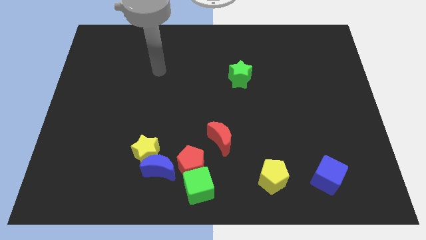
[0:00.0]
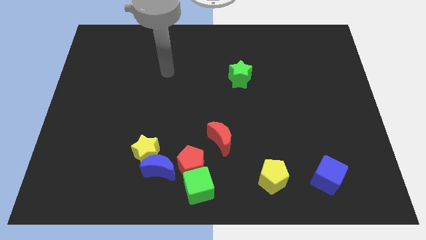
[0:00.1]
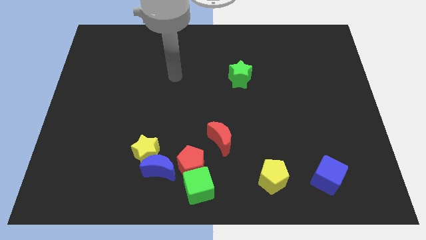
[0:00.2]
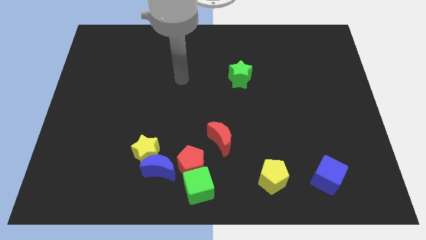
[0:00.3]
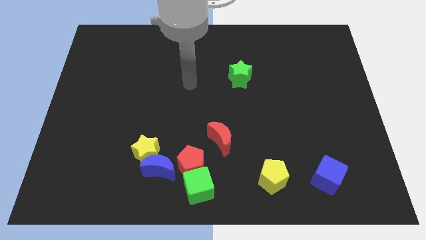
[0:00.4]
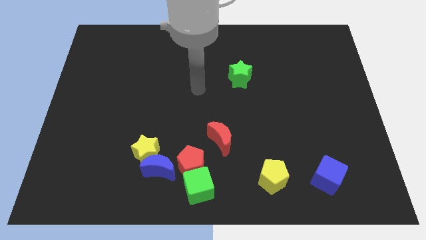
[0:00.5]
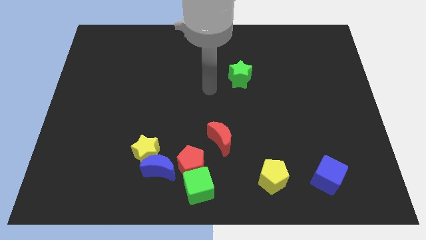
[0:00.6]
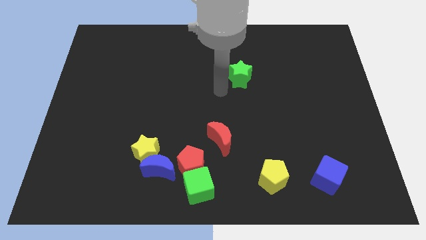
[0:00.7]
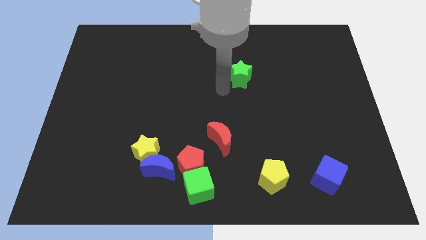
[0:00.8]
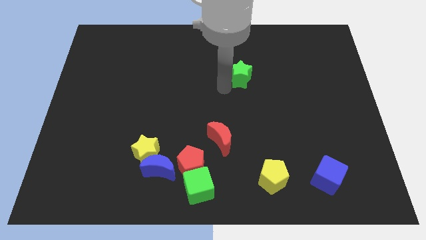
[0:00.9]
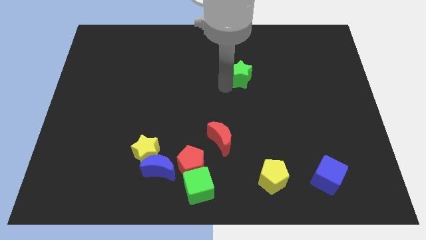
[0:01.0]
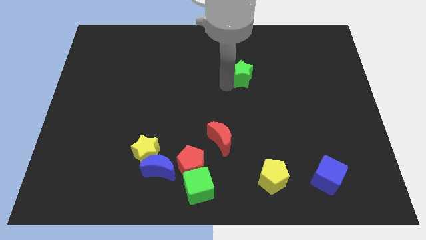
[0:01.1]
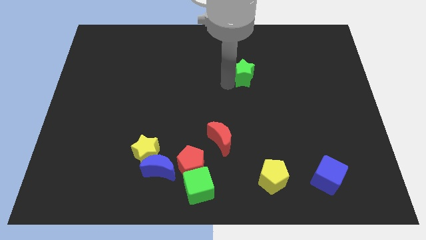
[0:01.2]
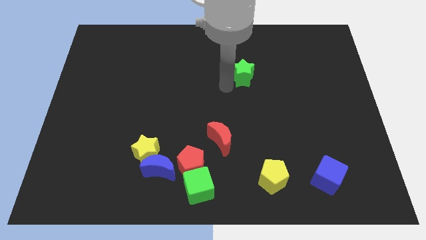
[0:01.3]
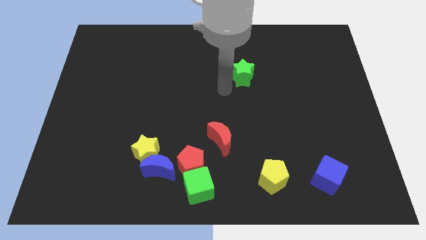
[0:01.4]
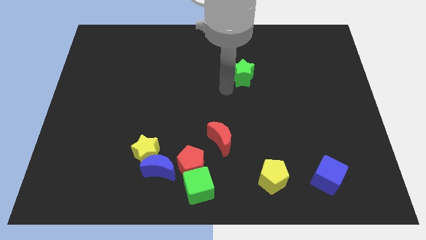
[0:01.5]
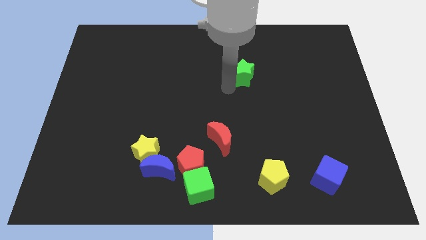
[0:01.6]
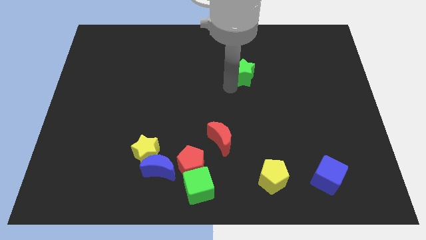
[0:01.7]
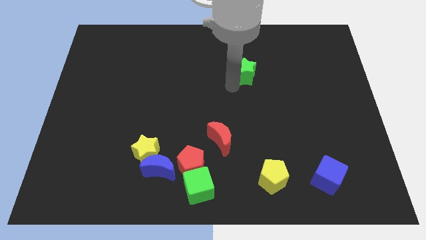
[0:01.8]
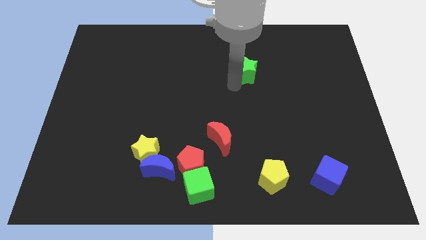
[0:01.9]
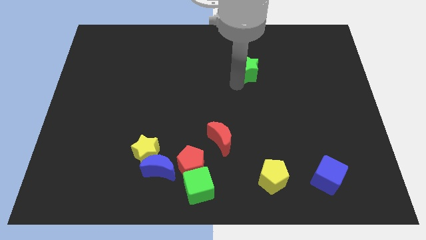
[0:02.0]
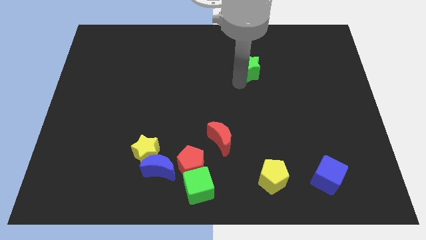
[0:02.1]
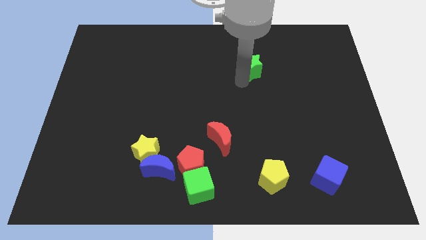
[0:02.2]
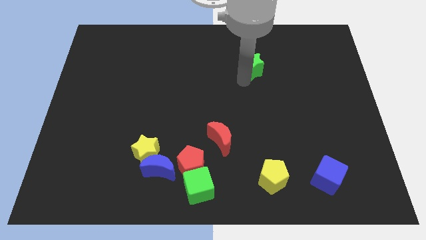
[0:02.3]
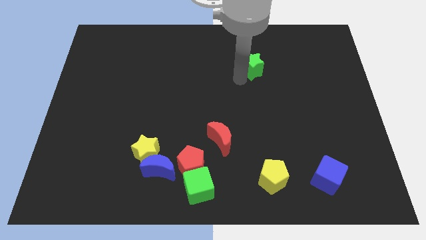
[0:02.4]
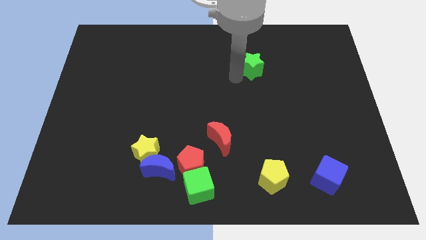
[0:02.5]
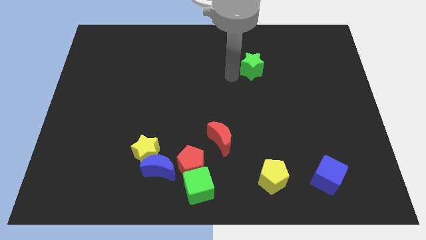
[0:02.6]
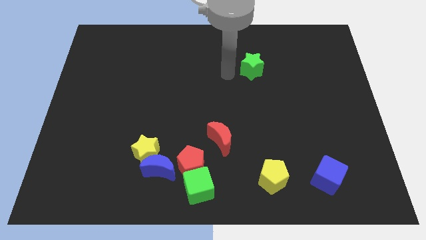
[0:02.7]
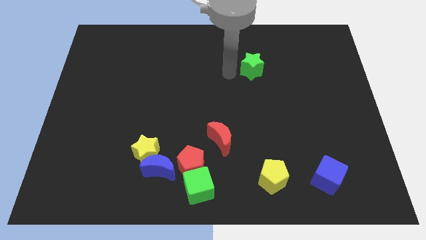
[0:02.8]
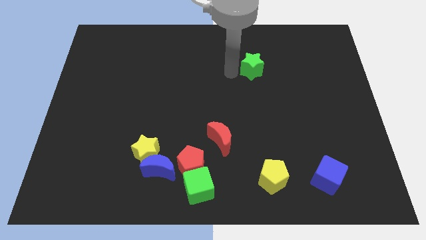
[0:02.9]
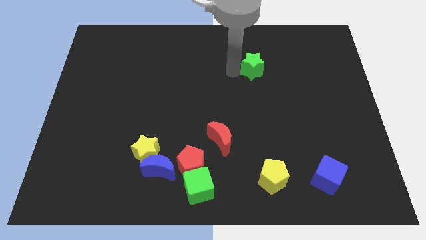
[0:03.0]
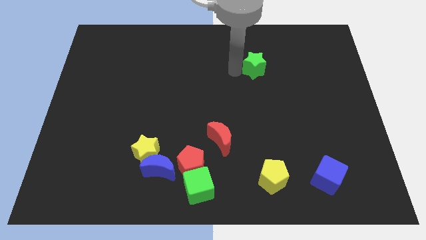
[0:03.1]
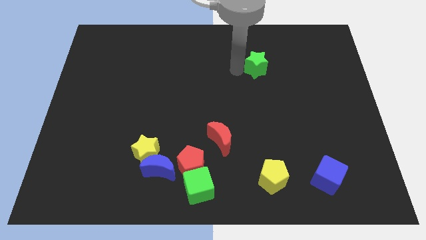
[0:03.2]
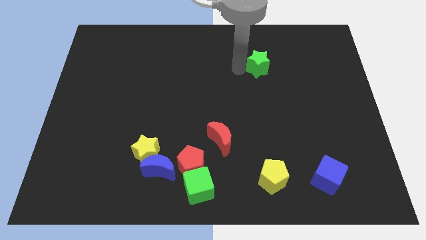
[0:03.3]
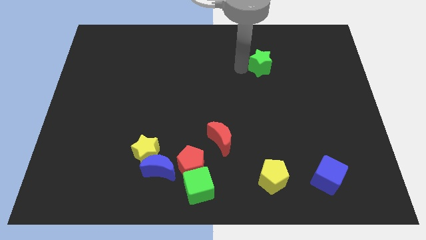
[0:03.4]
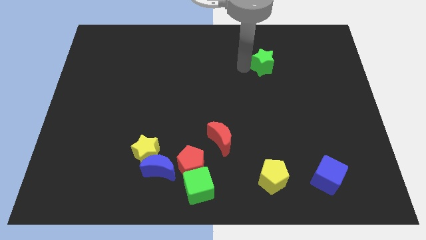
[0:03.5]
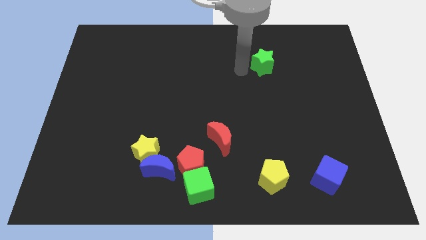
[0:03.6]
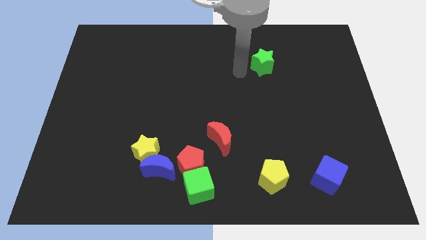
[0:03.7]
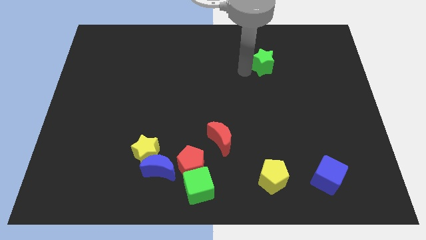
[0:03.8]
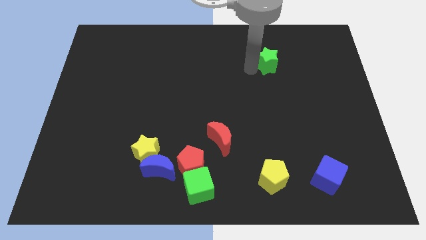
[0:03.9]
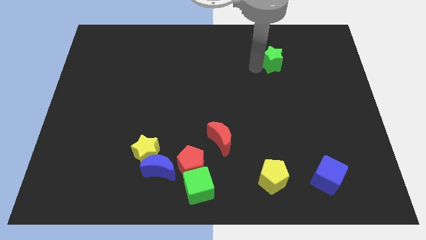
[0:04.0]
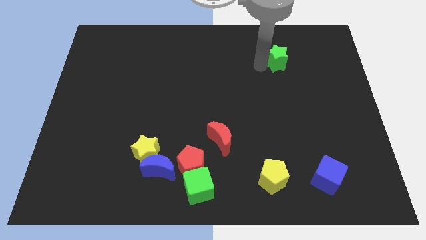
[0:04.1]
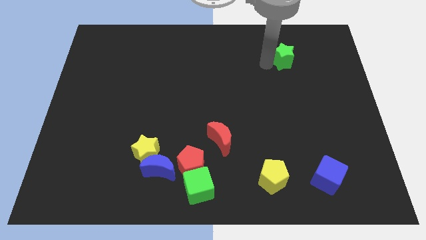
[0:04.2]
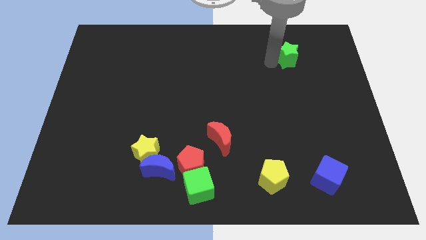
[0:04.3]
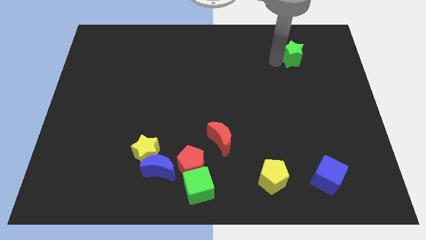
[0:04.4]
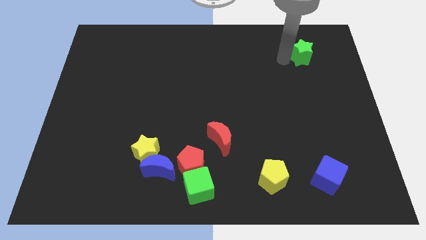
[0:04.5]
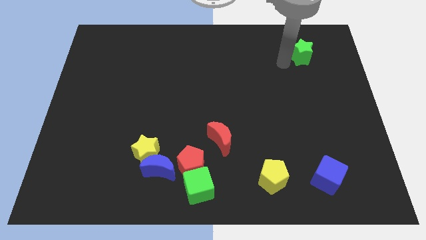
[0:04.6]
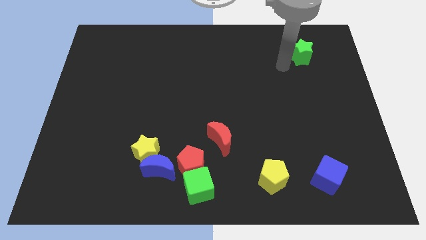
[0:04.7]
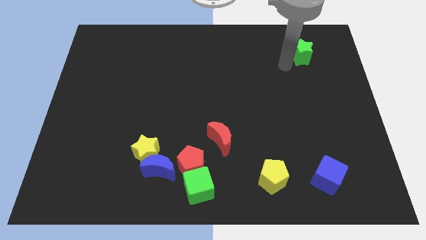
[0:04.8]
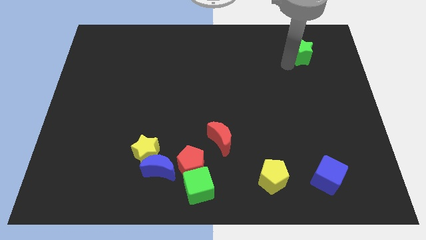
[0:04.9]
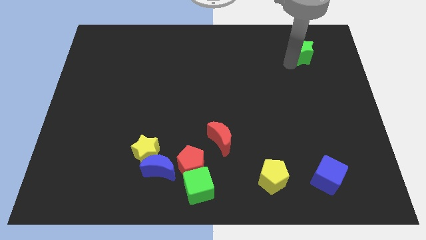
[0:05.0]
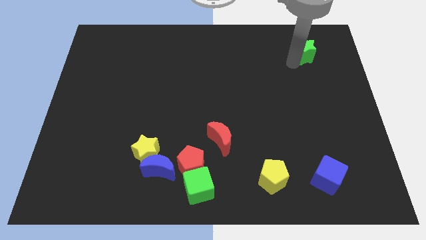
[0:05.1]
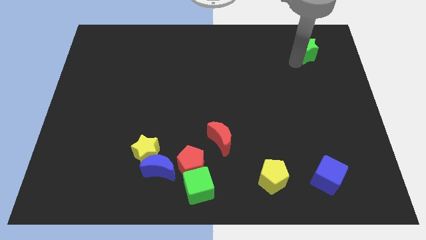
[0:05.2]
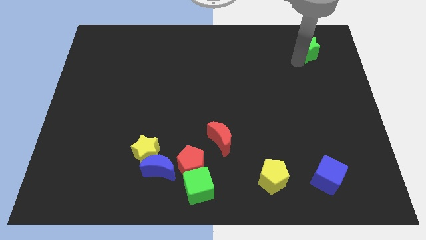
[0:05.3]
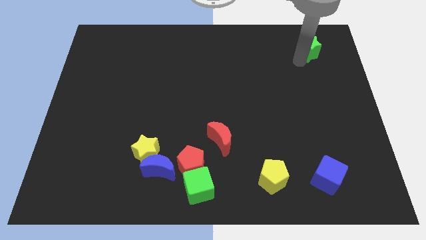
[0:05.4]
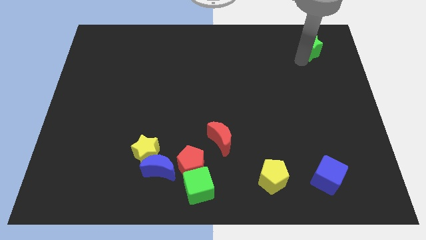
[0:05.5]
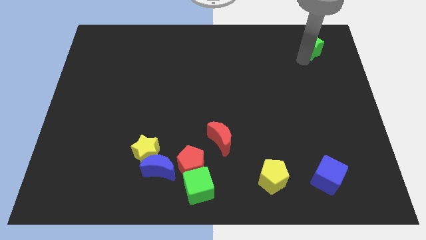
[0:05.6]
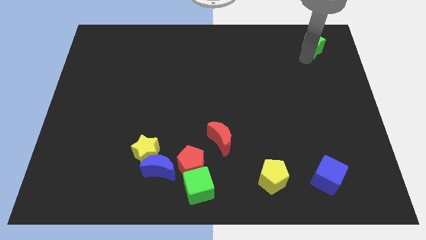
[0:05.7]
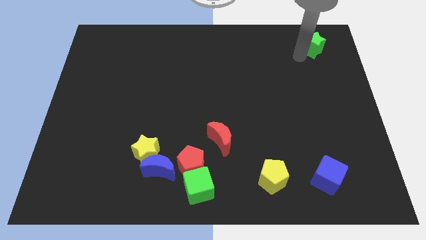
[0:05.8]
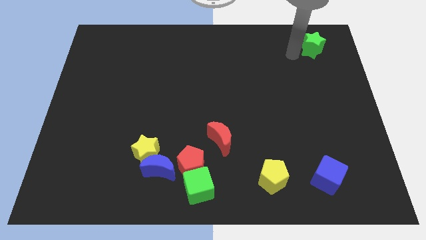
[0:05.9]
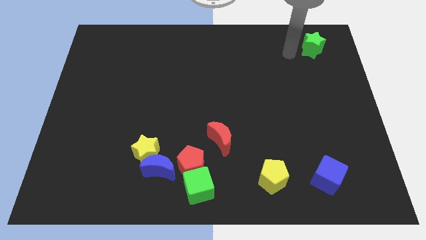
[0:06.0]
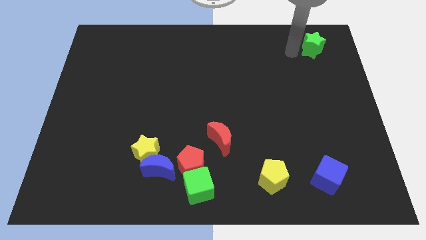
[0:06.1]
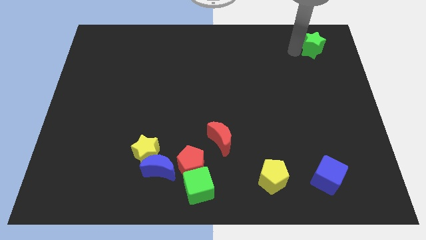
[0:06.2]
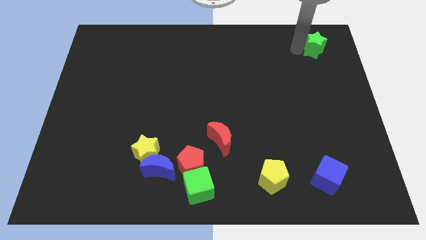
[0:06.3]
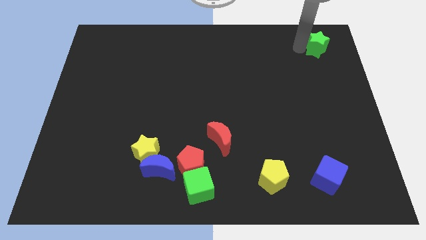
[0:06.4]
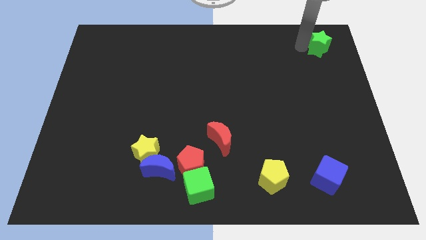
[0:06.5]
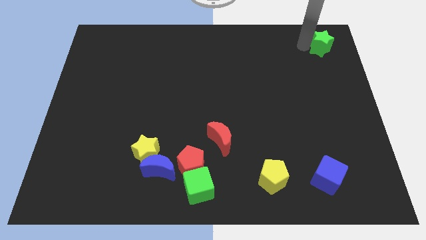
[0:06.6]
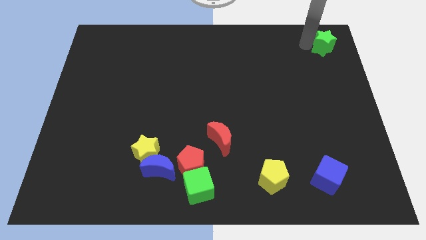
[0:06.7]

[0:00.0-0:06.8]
slide the green star to the top right corner
